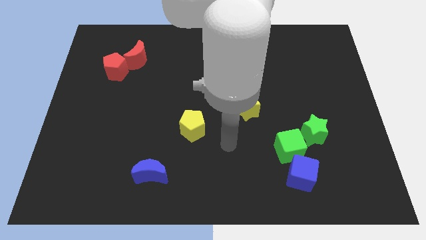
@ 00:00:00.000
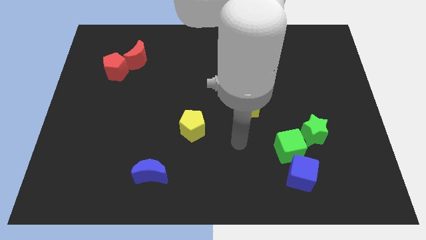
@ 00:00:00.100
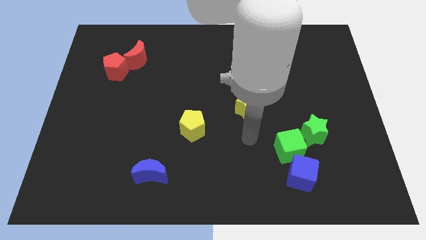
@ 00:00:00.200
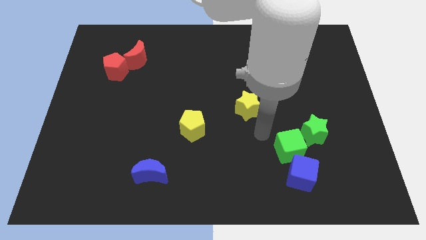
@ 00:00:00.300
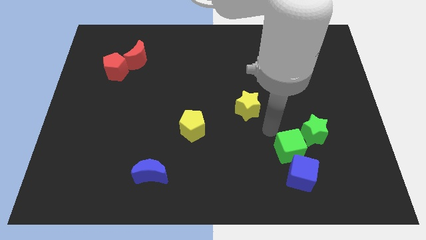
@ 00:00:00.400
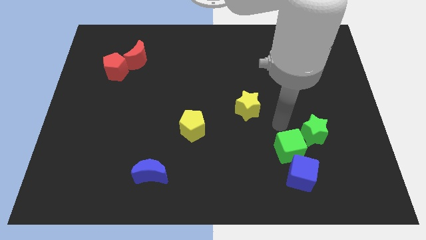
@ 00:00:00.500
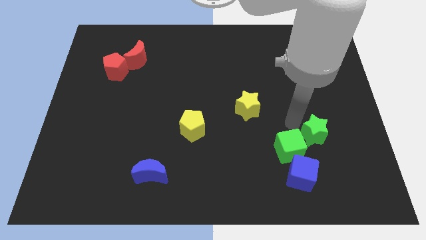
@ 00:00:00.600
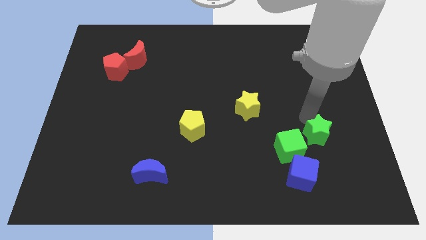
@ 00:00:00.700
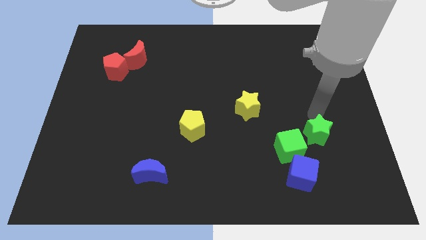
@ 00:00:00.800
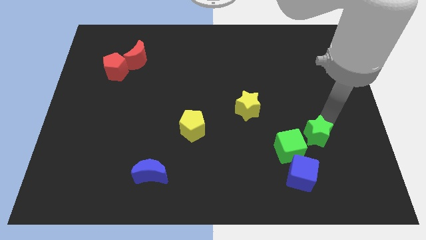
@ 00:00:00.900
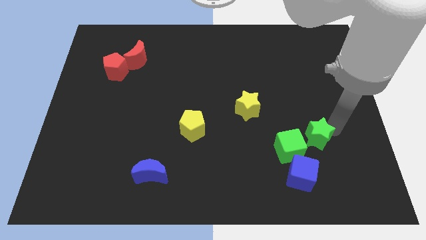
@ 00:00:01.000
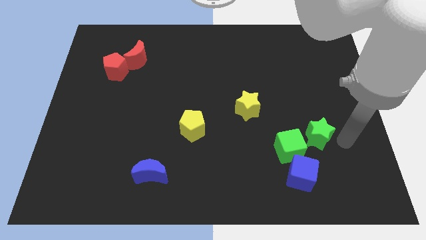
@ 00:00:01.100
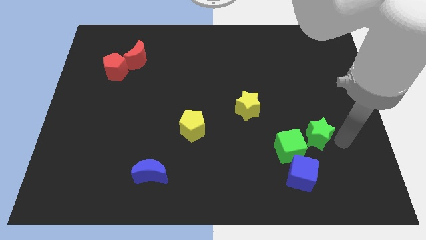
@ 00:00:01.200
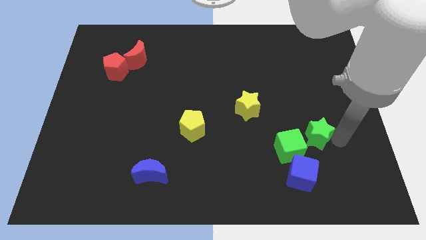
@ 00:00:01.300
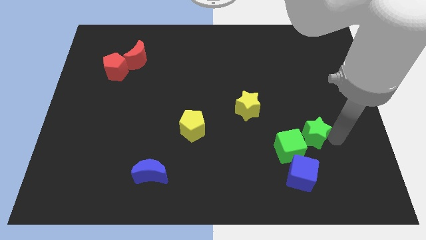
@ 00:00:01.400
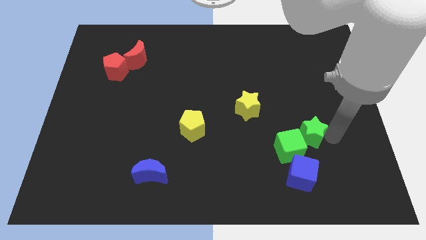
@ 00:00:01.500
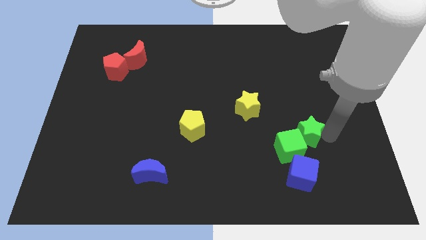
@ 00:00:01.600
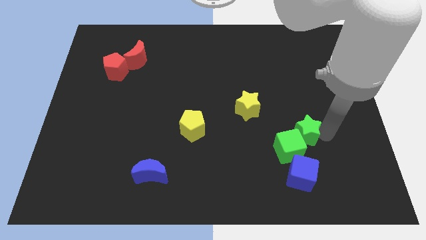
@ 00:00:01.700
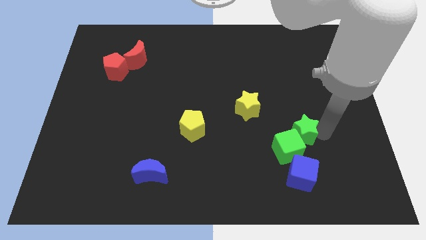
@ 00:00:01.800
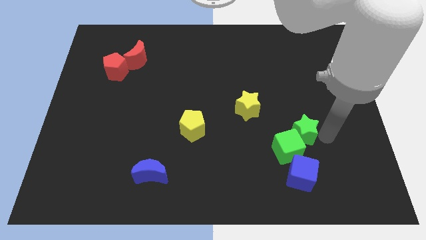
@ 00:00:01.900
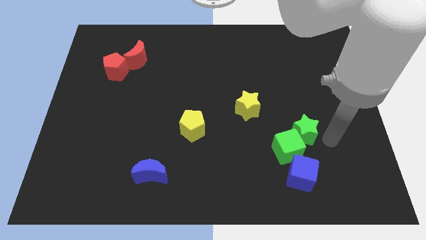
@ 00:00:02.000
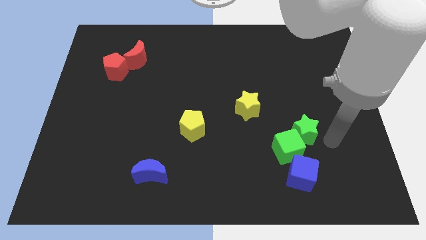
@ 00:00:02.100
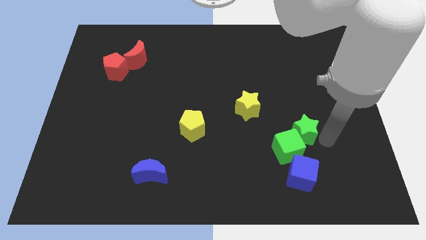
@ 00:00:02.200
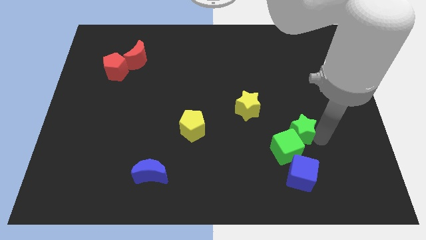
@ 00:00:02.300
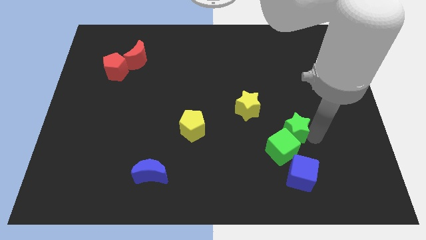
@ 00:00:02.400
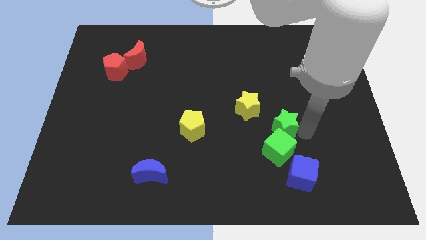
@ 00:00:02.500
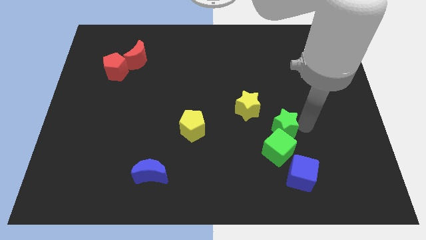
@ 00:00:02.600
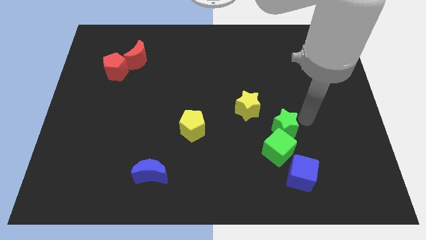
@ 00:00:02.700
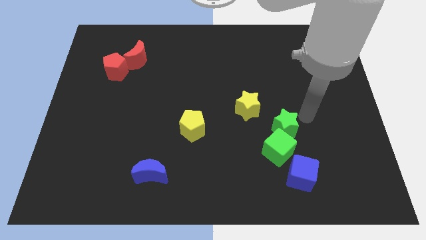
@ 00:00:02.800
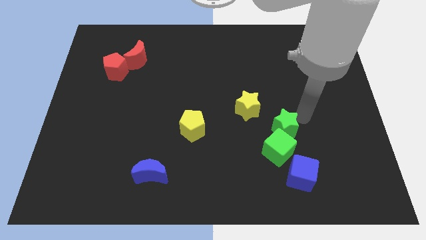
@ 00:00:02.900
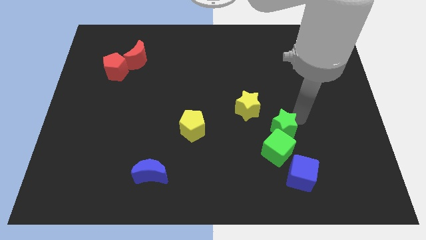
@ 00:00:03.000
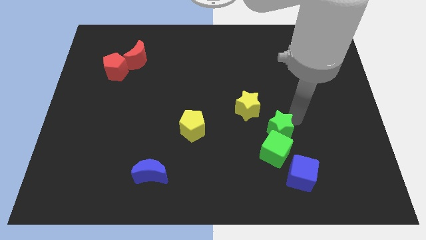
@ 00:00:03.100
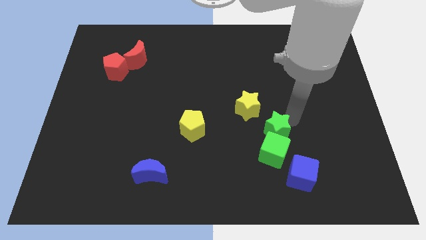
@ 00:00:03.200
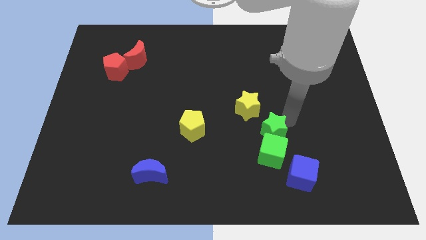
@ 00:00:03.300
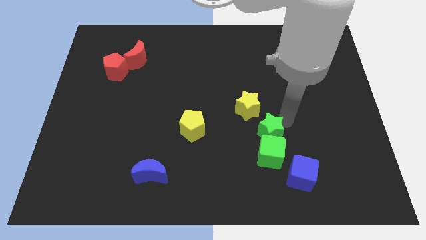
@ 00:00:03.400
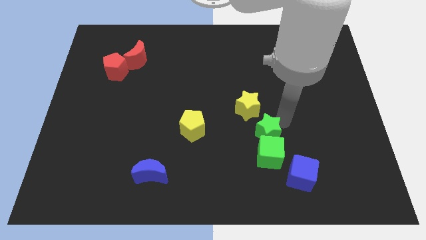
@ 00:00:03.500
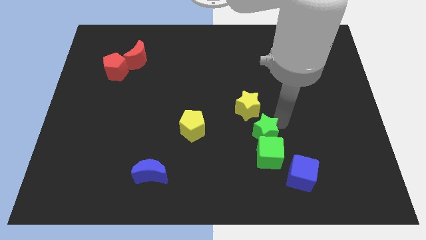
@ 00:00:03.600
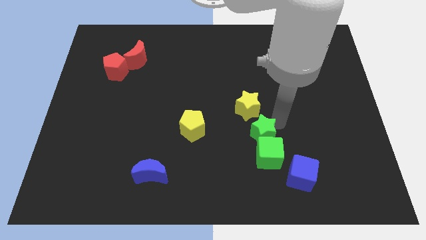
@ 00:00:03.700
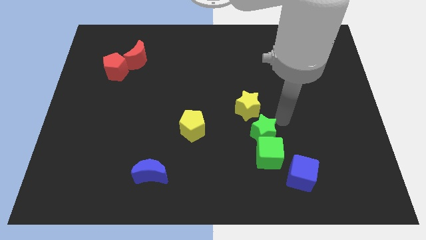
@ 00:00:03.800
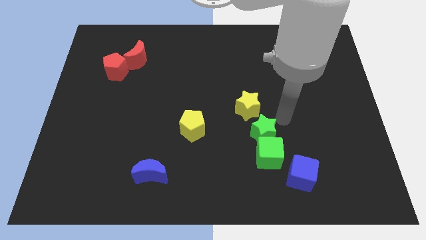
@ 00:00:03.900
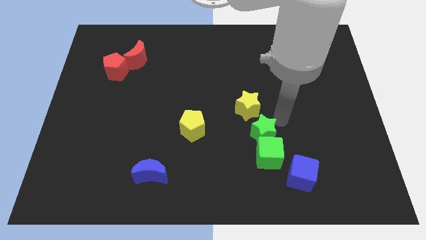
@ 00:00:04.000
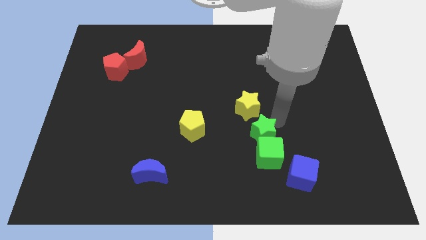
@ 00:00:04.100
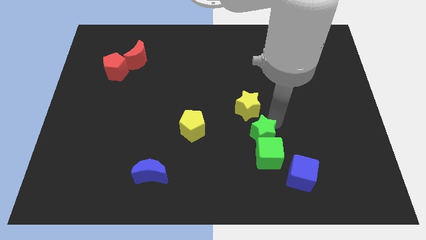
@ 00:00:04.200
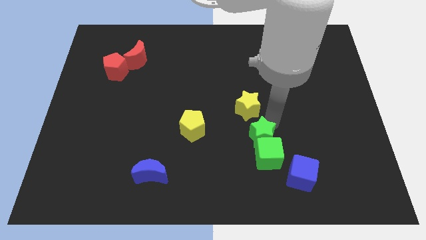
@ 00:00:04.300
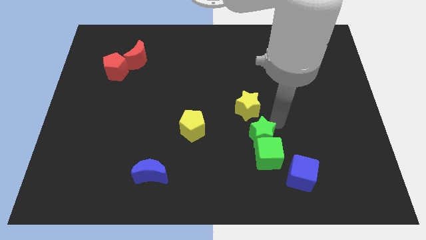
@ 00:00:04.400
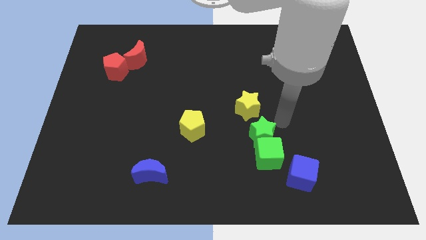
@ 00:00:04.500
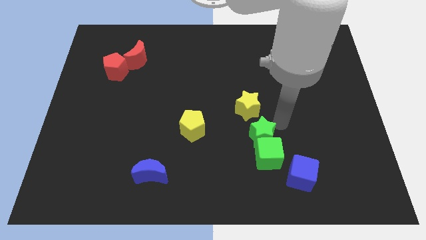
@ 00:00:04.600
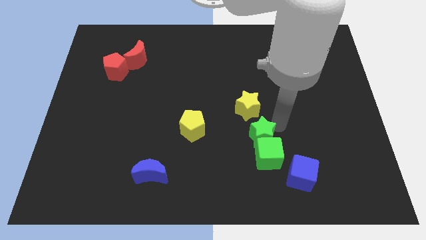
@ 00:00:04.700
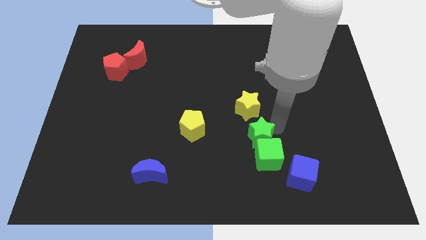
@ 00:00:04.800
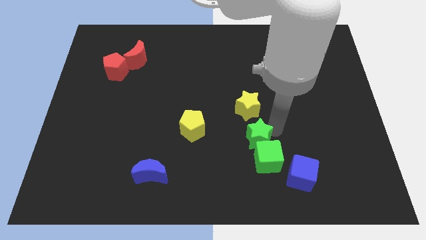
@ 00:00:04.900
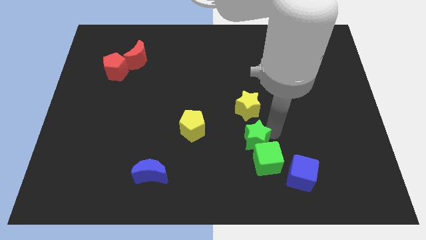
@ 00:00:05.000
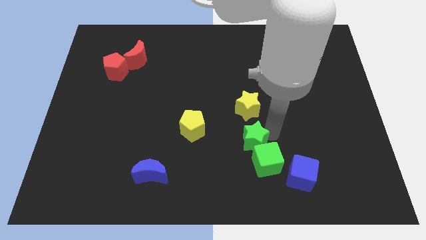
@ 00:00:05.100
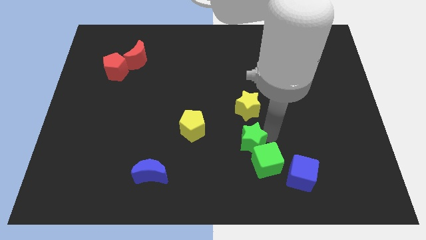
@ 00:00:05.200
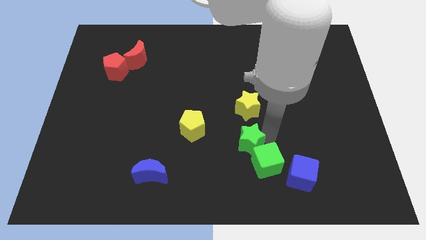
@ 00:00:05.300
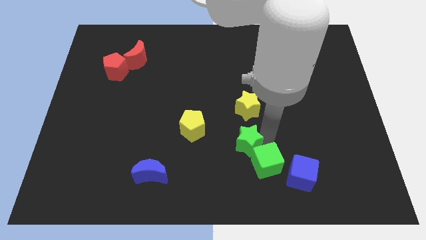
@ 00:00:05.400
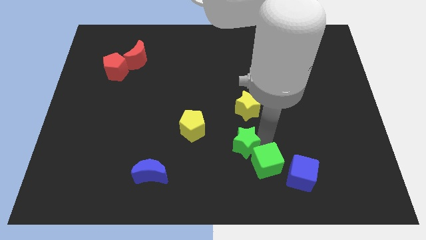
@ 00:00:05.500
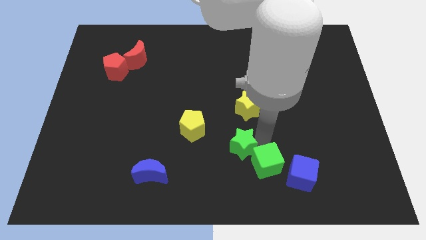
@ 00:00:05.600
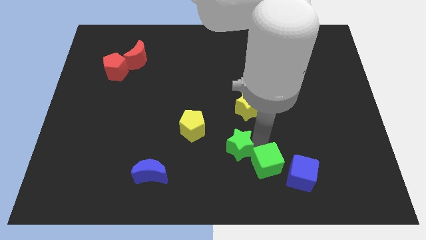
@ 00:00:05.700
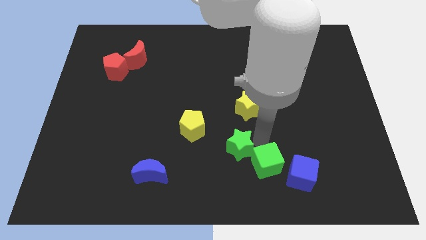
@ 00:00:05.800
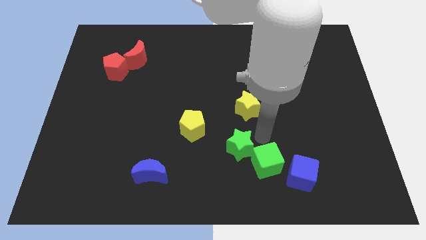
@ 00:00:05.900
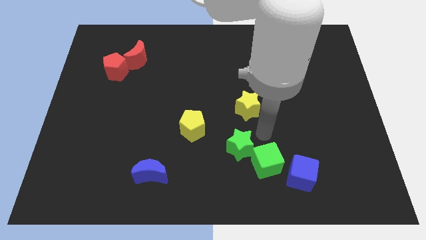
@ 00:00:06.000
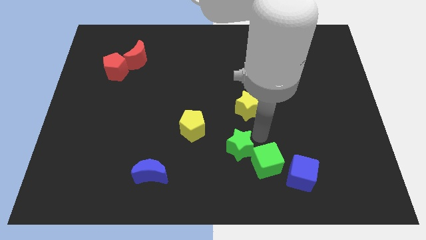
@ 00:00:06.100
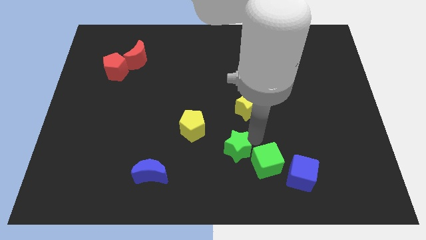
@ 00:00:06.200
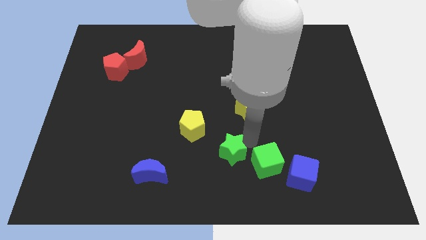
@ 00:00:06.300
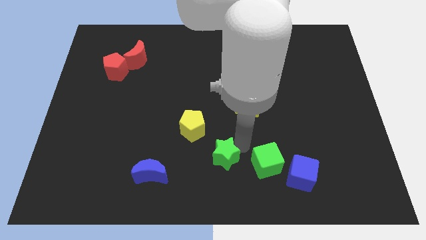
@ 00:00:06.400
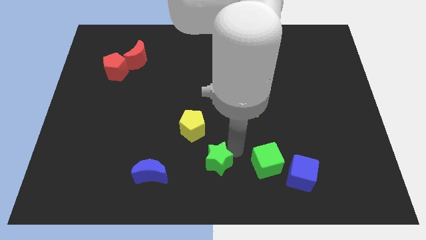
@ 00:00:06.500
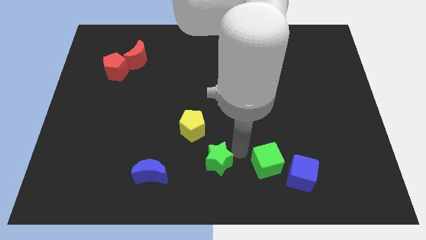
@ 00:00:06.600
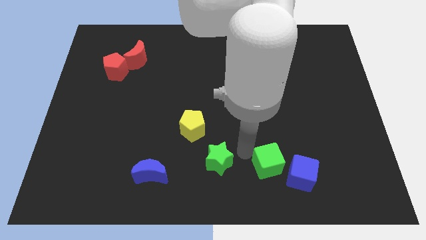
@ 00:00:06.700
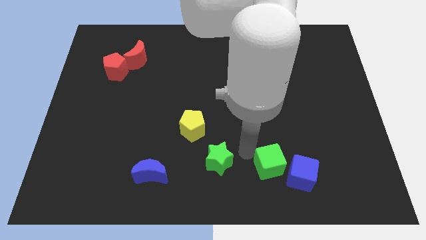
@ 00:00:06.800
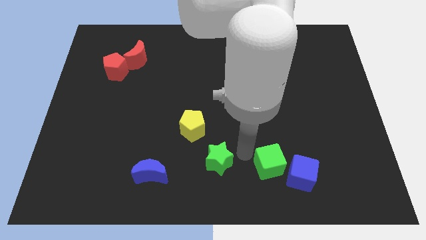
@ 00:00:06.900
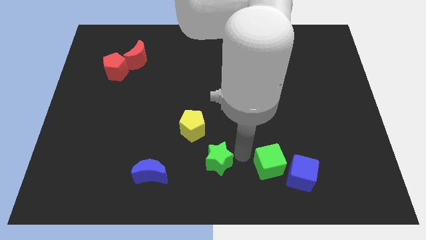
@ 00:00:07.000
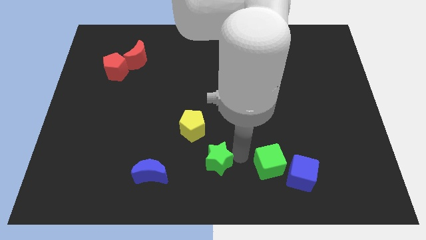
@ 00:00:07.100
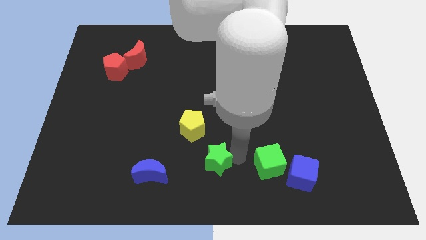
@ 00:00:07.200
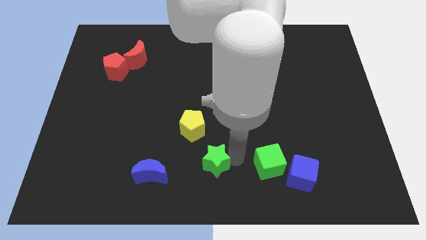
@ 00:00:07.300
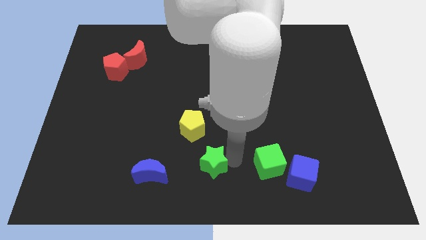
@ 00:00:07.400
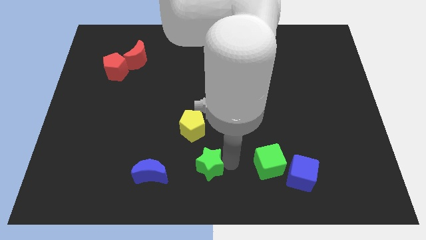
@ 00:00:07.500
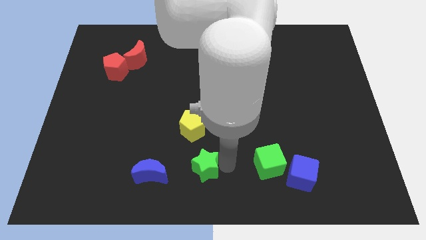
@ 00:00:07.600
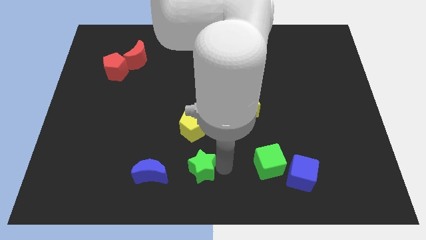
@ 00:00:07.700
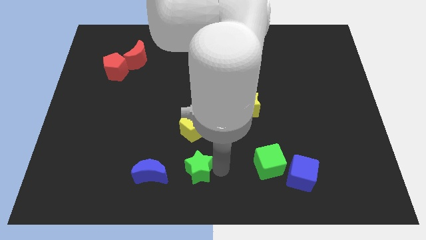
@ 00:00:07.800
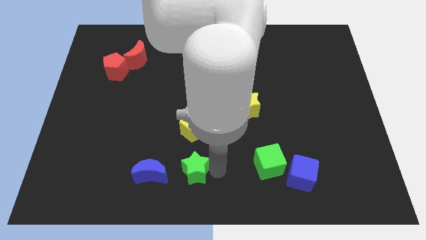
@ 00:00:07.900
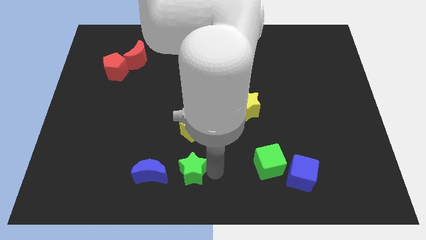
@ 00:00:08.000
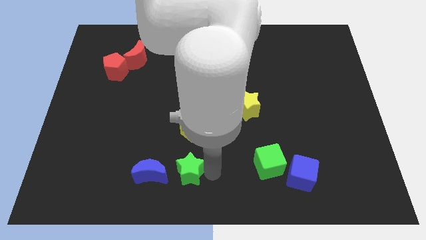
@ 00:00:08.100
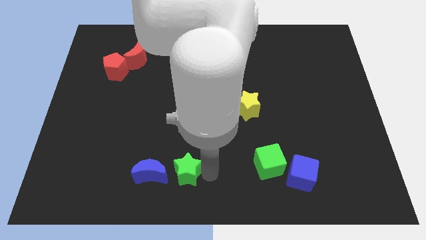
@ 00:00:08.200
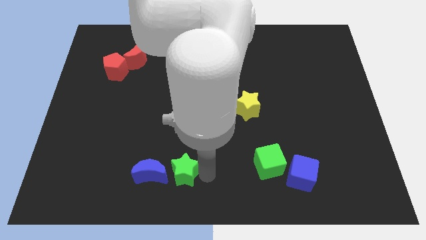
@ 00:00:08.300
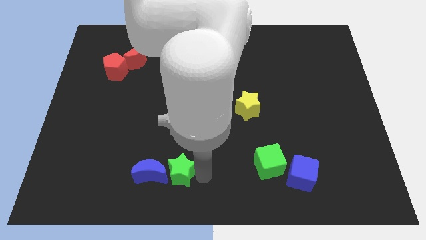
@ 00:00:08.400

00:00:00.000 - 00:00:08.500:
put the green star next to the blue moon
